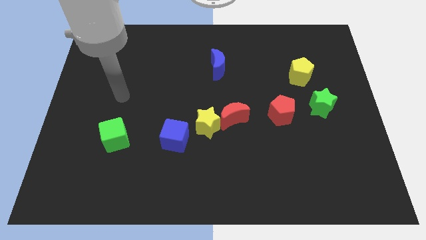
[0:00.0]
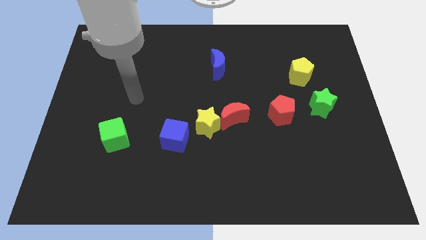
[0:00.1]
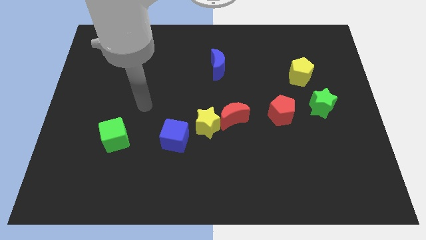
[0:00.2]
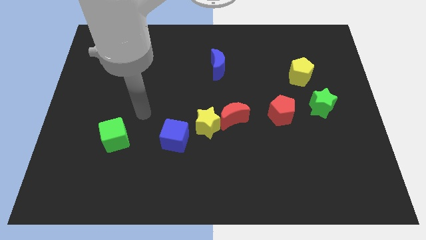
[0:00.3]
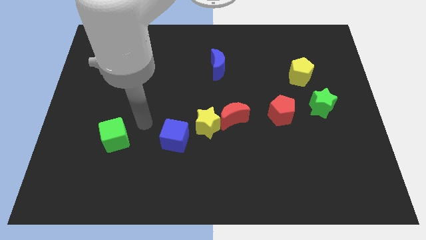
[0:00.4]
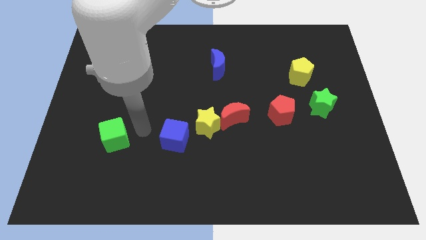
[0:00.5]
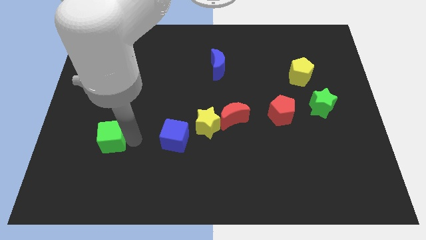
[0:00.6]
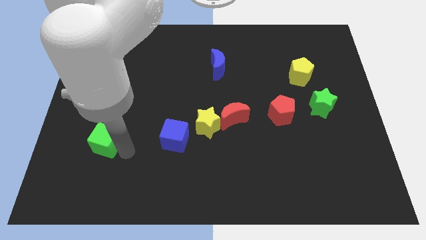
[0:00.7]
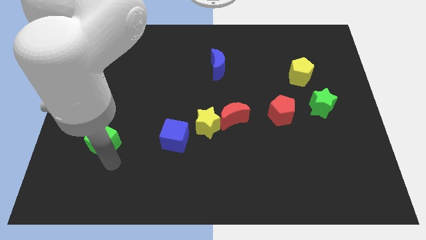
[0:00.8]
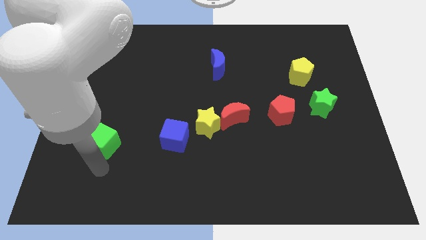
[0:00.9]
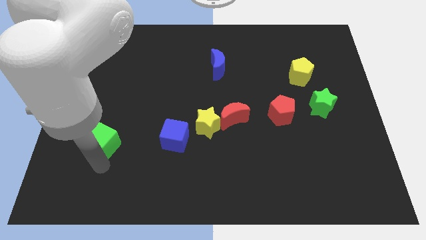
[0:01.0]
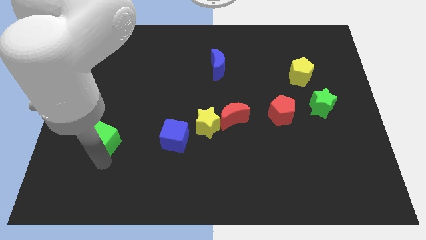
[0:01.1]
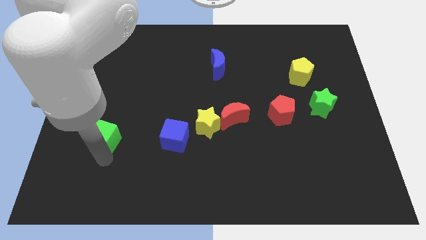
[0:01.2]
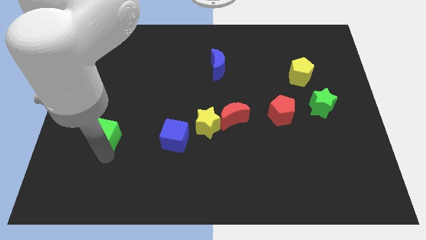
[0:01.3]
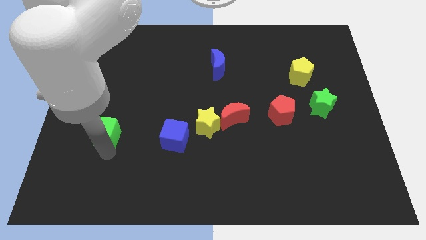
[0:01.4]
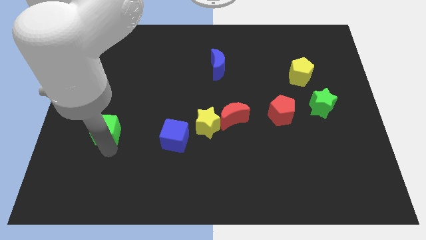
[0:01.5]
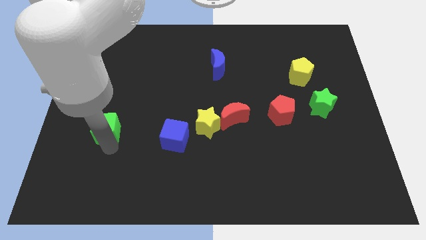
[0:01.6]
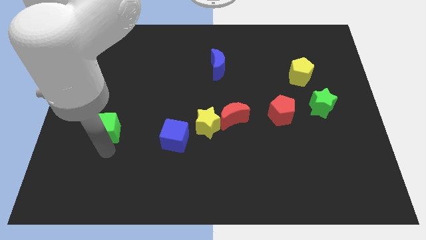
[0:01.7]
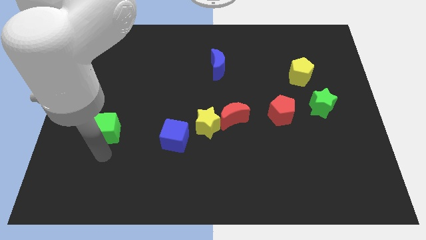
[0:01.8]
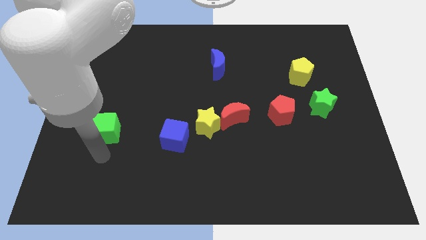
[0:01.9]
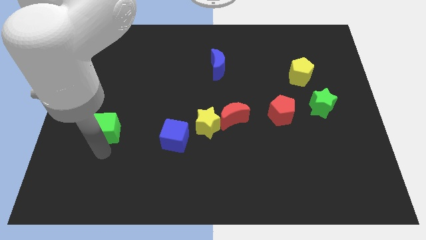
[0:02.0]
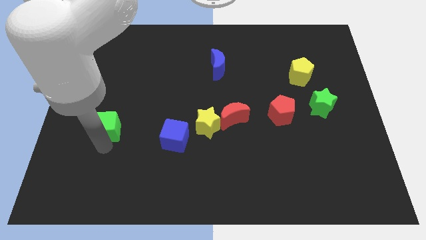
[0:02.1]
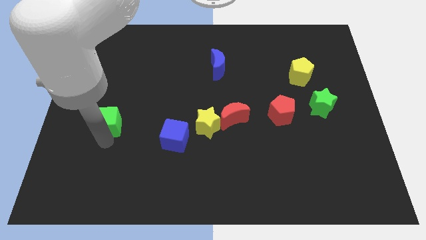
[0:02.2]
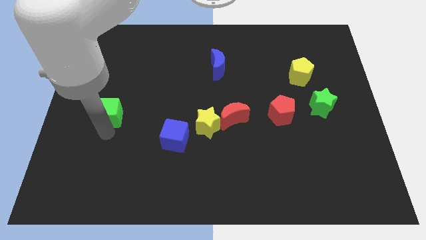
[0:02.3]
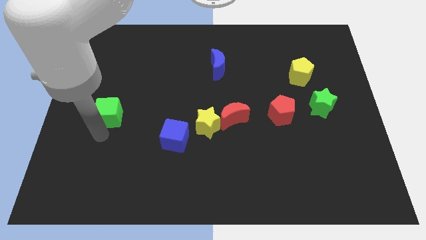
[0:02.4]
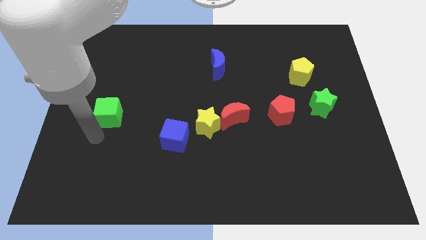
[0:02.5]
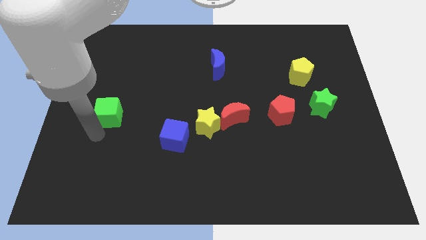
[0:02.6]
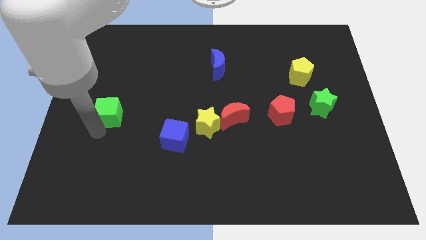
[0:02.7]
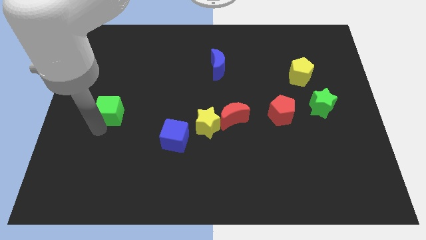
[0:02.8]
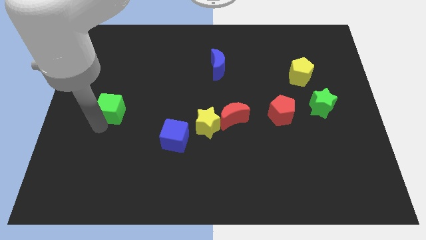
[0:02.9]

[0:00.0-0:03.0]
slide the green cube slightly up

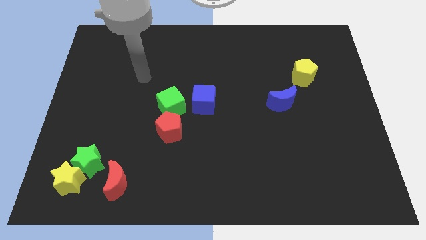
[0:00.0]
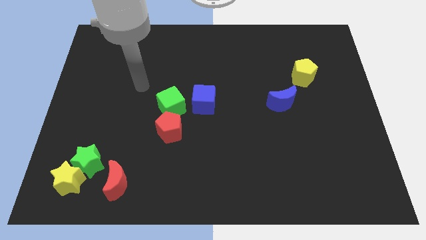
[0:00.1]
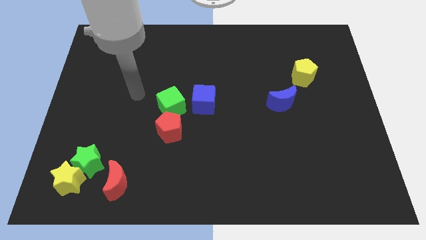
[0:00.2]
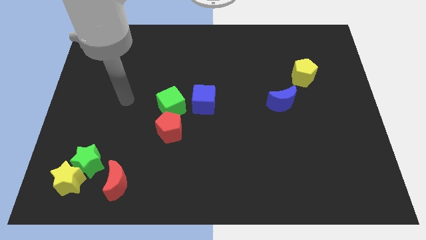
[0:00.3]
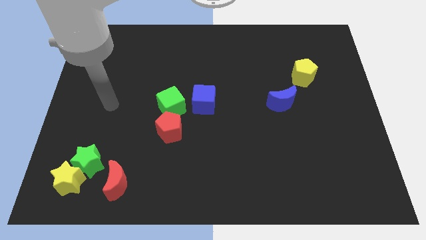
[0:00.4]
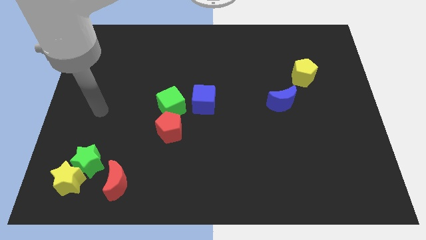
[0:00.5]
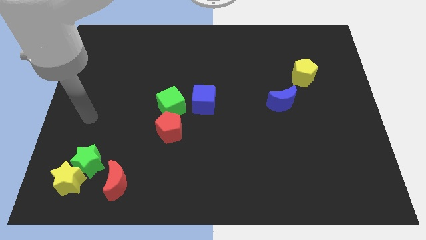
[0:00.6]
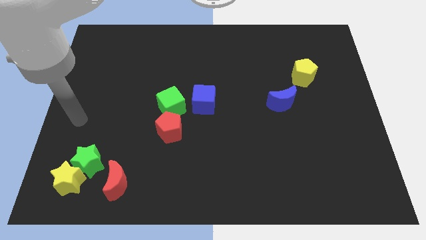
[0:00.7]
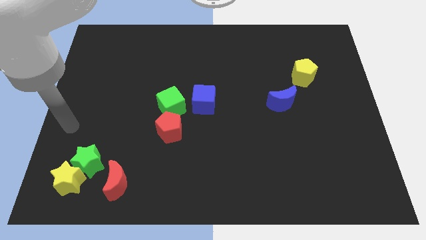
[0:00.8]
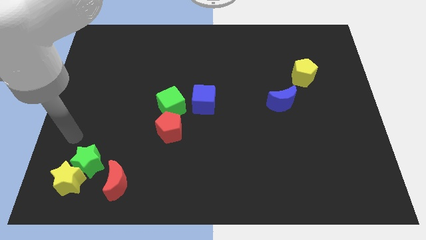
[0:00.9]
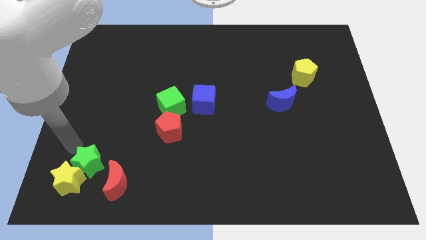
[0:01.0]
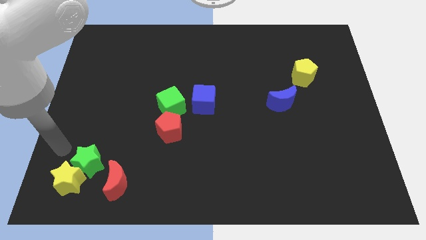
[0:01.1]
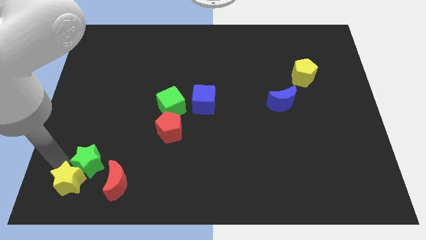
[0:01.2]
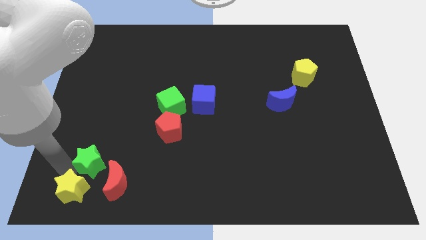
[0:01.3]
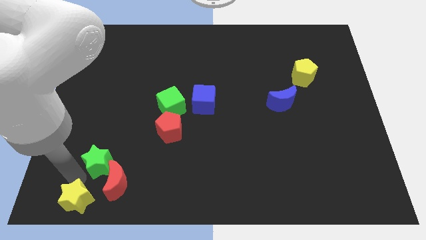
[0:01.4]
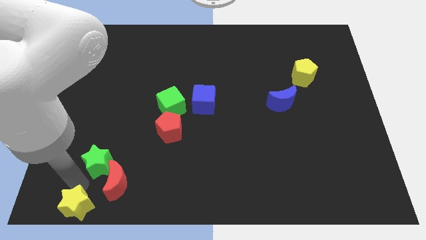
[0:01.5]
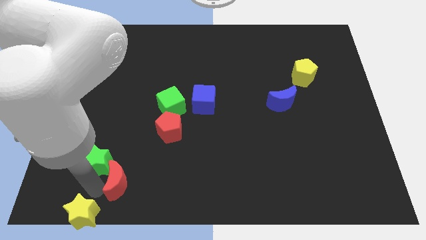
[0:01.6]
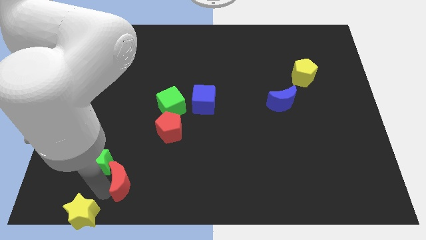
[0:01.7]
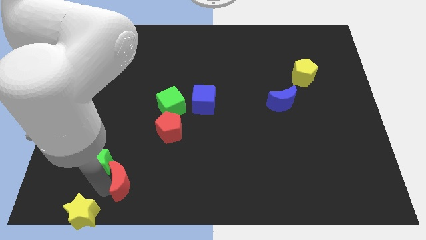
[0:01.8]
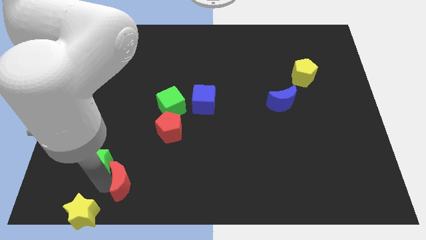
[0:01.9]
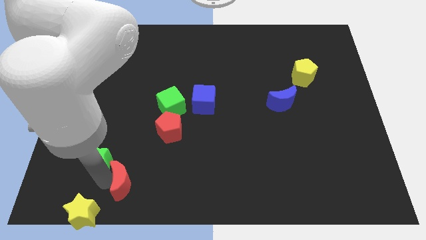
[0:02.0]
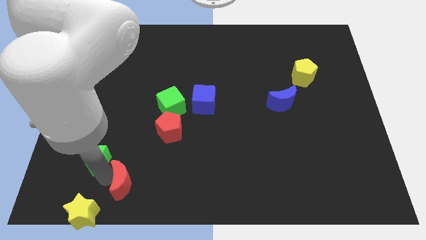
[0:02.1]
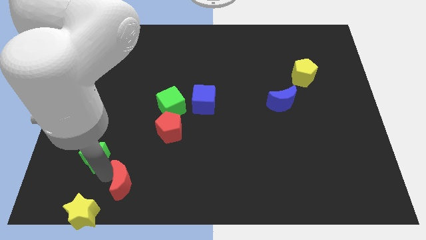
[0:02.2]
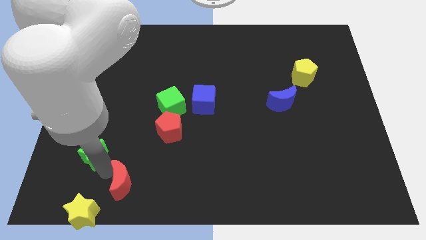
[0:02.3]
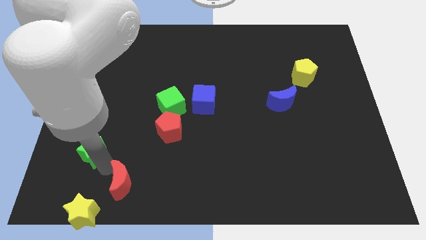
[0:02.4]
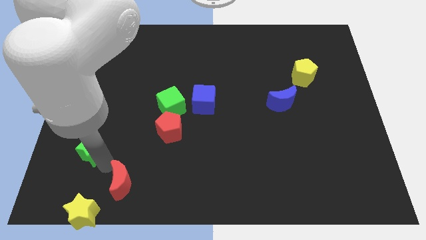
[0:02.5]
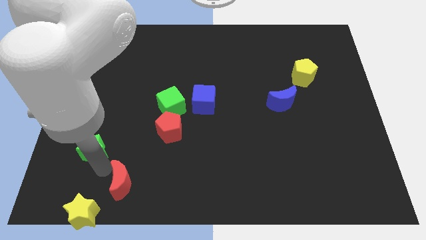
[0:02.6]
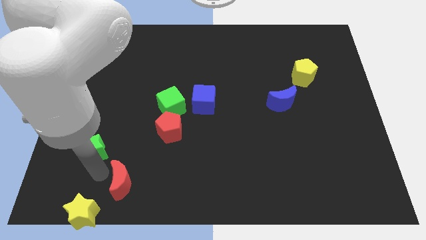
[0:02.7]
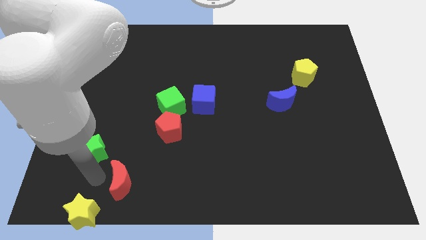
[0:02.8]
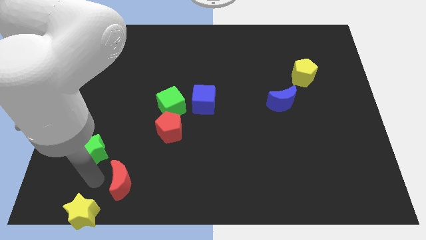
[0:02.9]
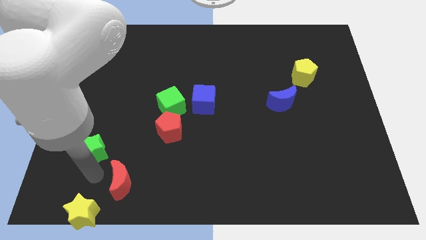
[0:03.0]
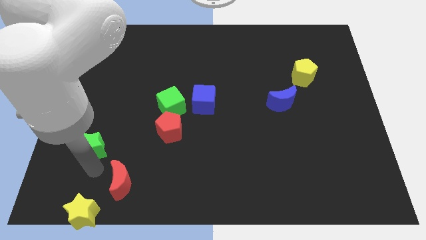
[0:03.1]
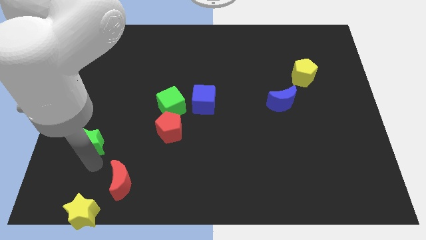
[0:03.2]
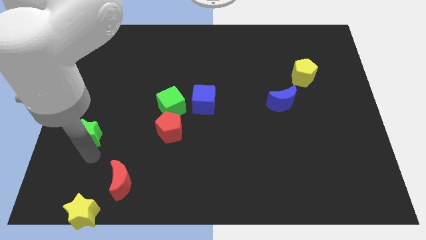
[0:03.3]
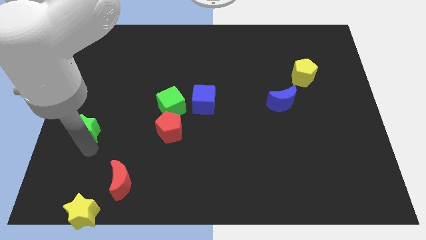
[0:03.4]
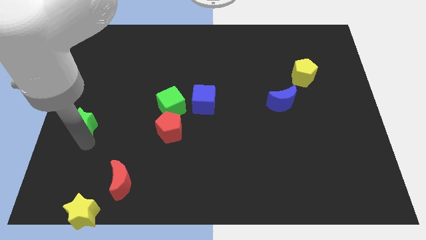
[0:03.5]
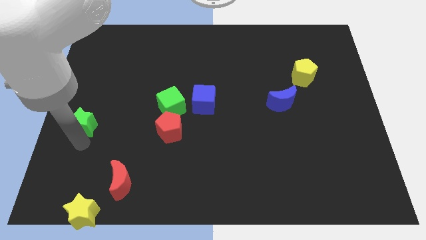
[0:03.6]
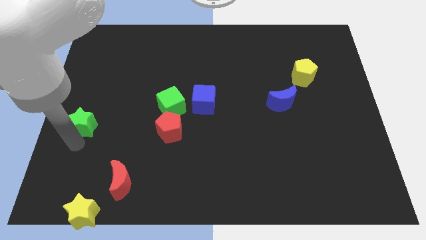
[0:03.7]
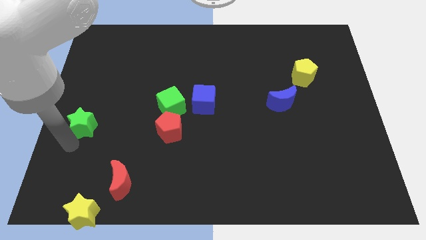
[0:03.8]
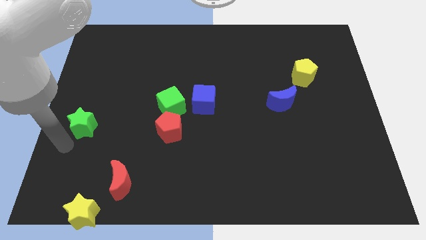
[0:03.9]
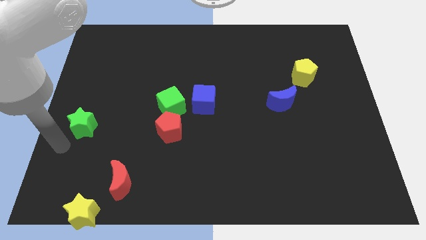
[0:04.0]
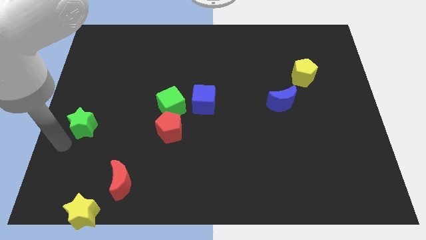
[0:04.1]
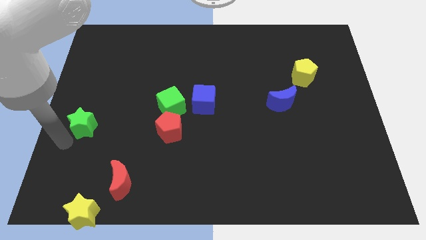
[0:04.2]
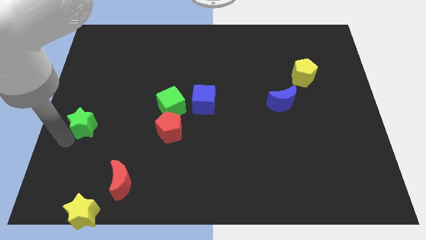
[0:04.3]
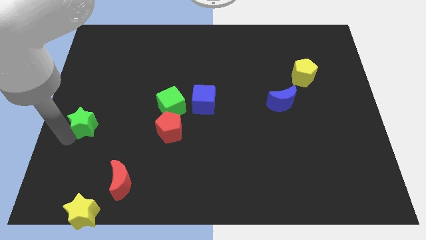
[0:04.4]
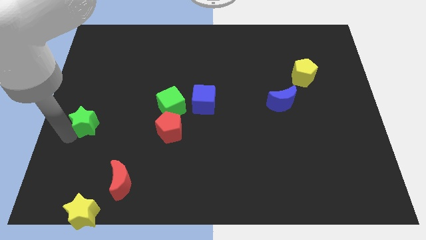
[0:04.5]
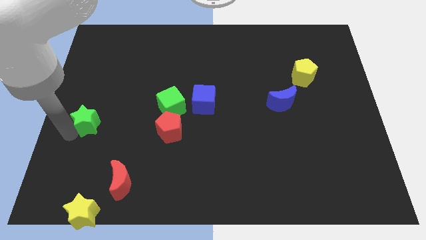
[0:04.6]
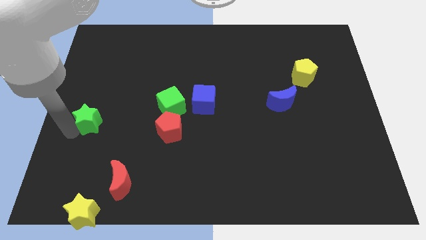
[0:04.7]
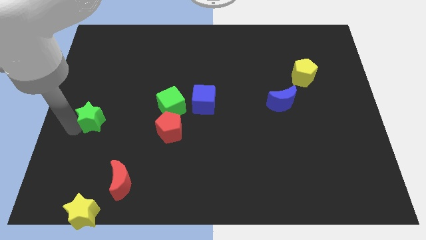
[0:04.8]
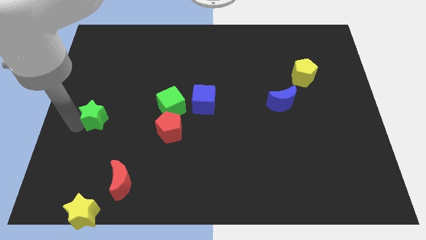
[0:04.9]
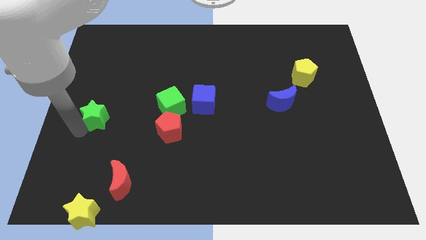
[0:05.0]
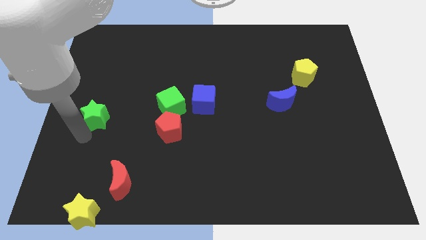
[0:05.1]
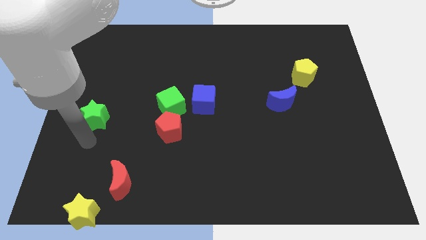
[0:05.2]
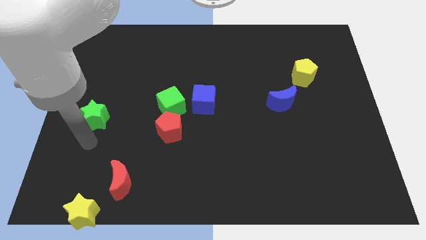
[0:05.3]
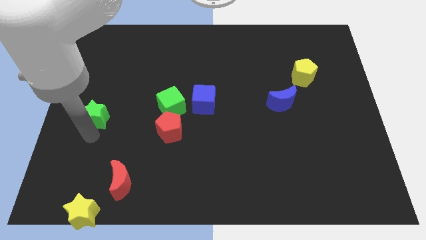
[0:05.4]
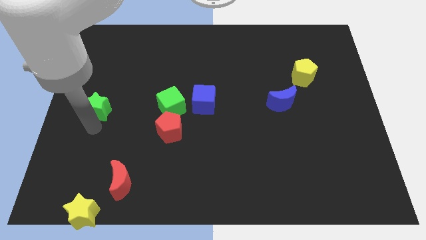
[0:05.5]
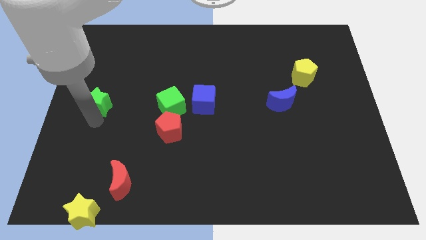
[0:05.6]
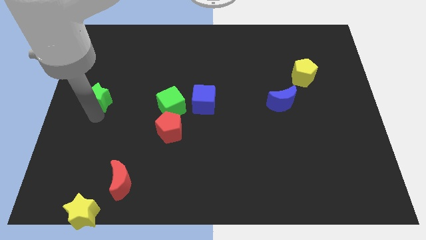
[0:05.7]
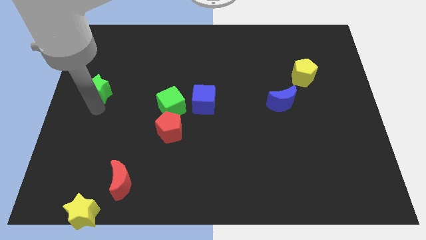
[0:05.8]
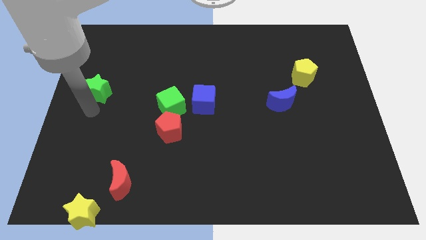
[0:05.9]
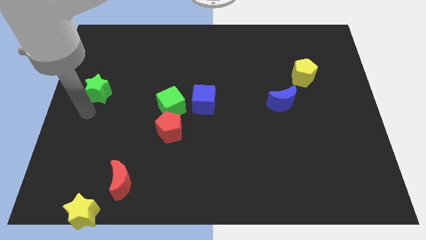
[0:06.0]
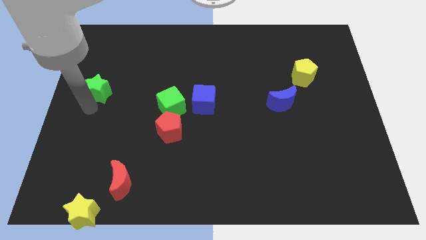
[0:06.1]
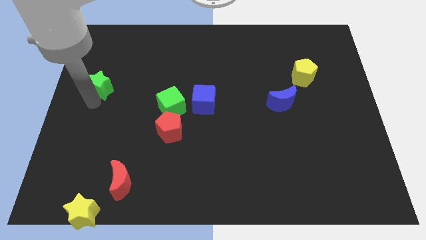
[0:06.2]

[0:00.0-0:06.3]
push the green star upwards
